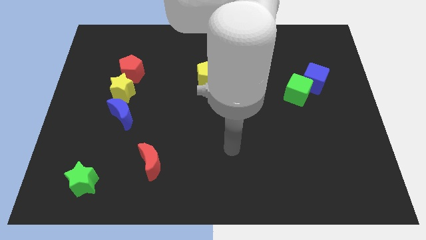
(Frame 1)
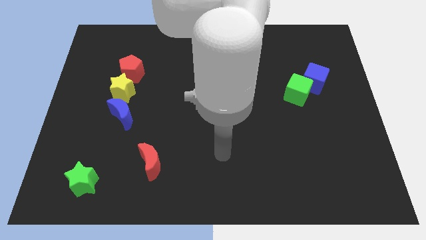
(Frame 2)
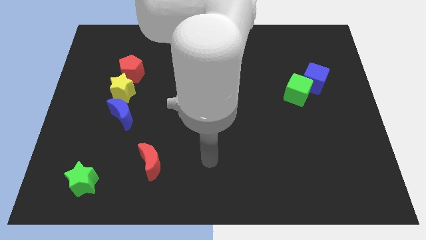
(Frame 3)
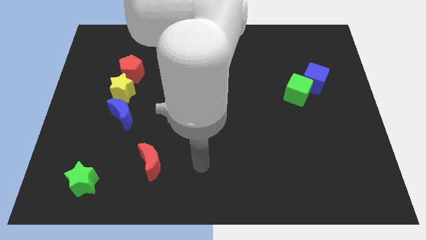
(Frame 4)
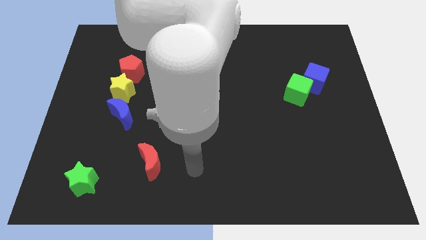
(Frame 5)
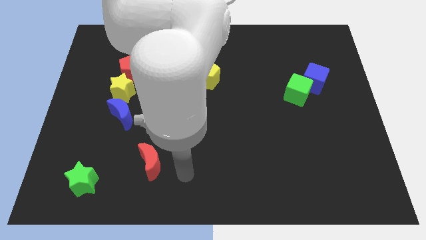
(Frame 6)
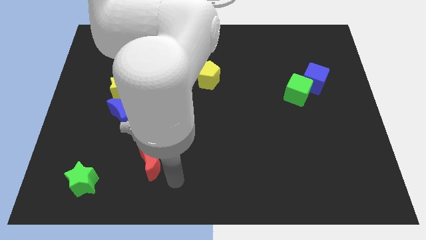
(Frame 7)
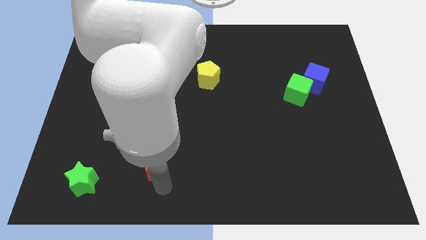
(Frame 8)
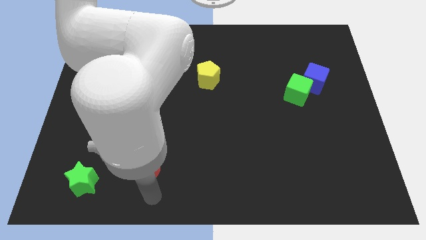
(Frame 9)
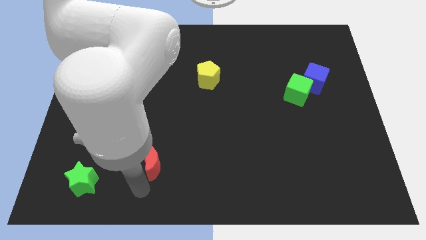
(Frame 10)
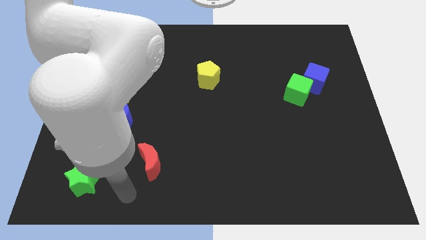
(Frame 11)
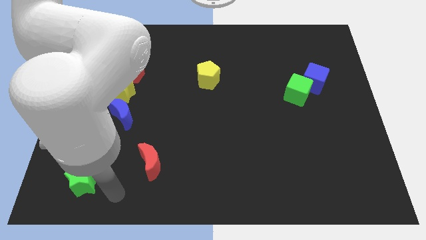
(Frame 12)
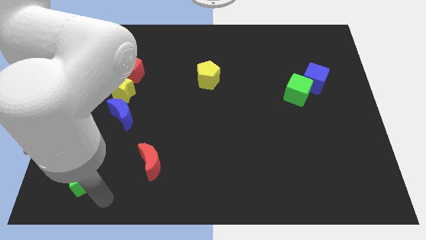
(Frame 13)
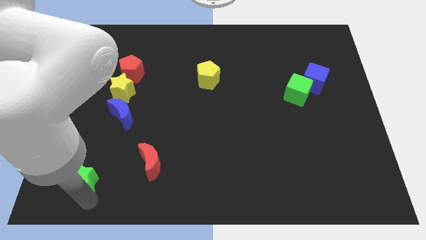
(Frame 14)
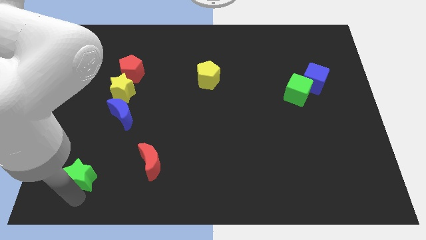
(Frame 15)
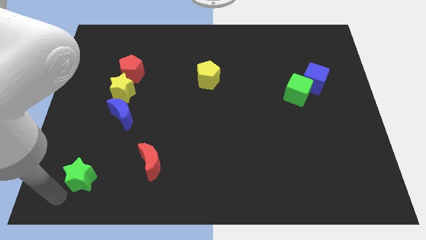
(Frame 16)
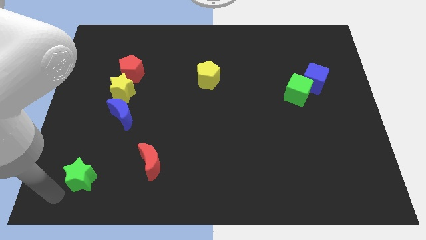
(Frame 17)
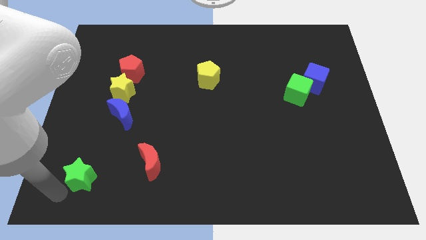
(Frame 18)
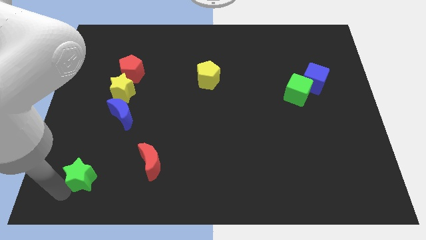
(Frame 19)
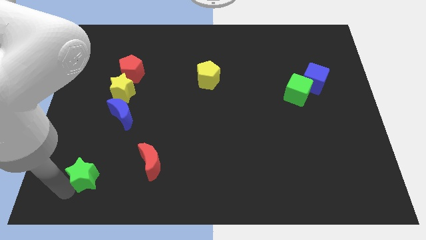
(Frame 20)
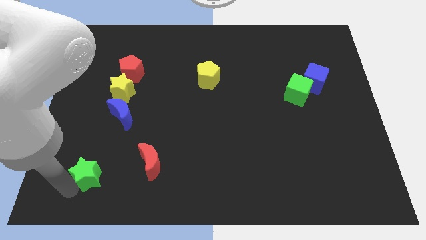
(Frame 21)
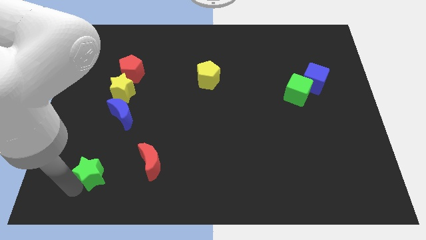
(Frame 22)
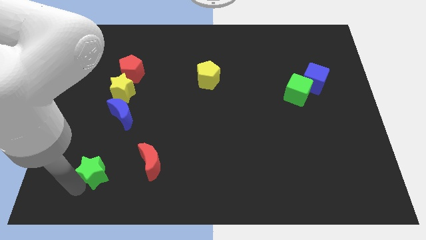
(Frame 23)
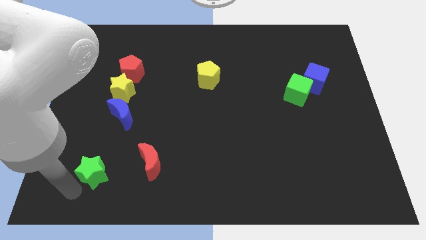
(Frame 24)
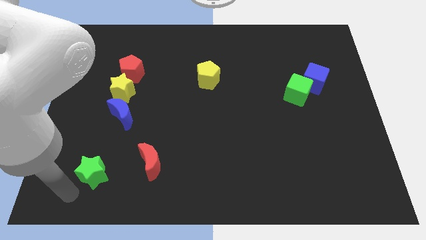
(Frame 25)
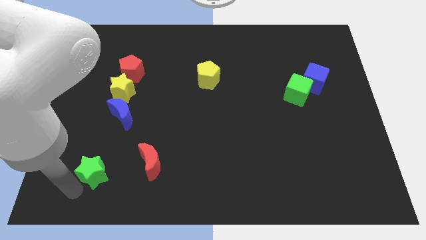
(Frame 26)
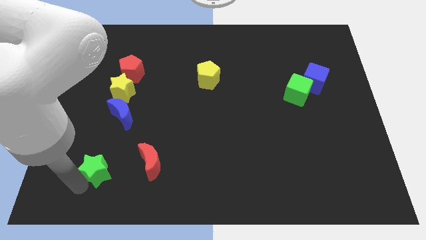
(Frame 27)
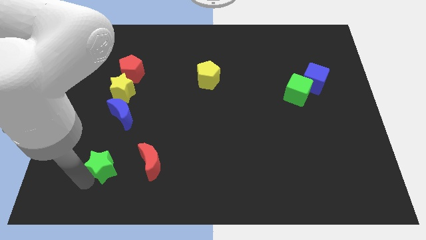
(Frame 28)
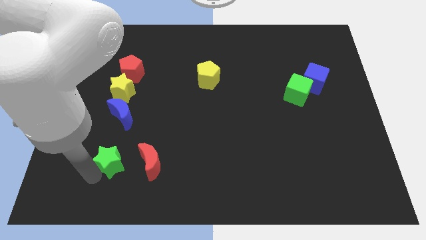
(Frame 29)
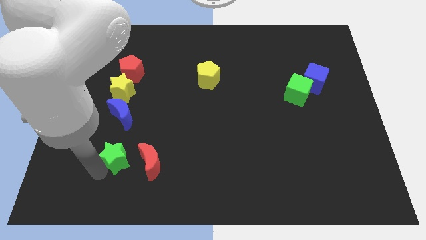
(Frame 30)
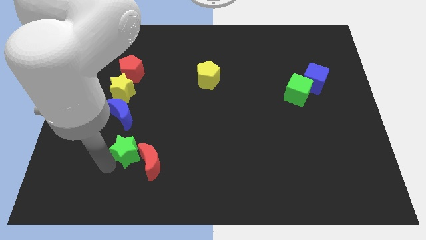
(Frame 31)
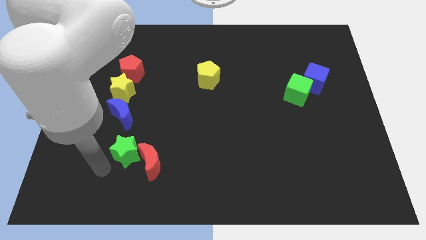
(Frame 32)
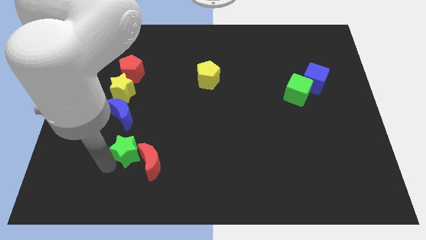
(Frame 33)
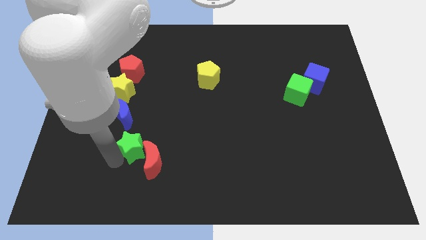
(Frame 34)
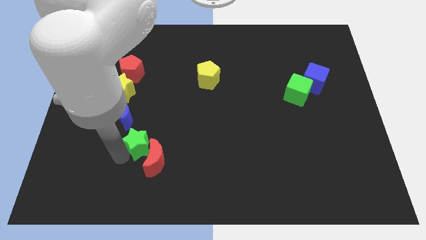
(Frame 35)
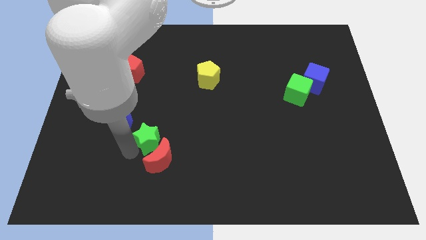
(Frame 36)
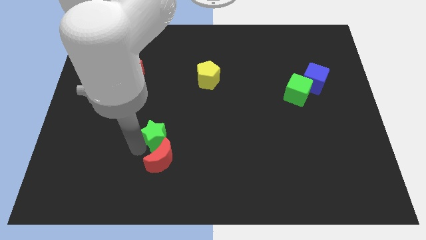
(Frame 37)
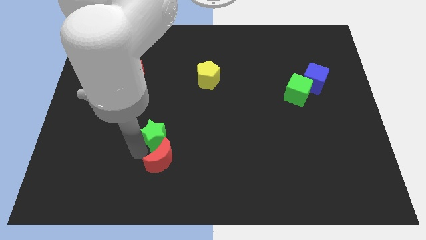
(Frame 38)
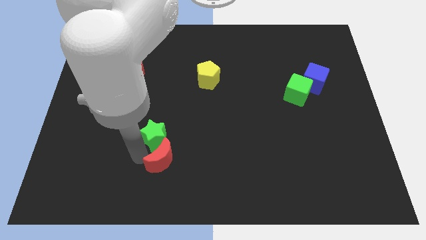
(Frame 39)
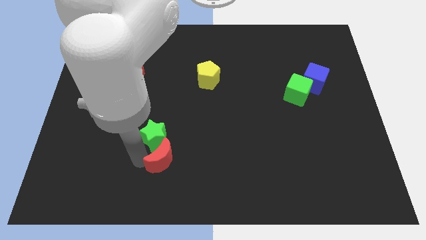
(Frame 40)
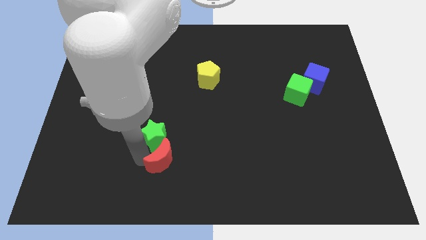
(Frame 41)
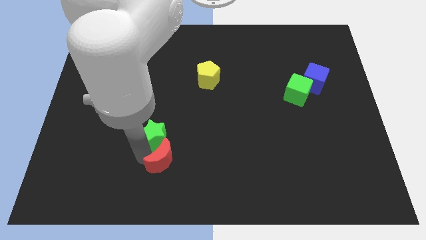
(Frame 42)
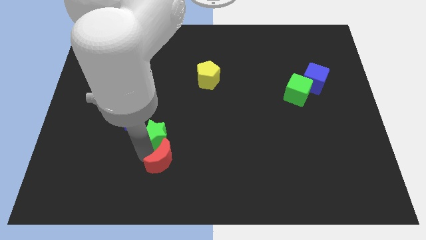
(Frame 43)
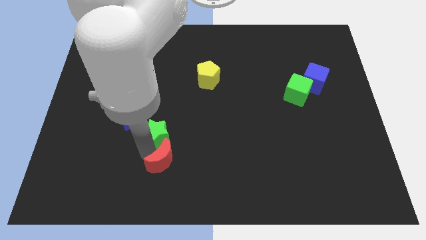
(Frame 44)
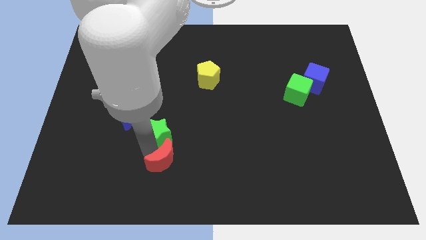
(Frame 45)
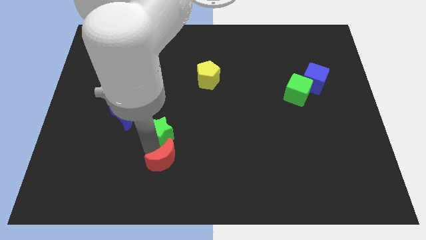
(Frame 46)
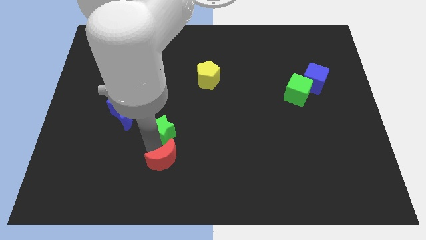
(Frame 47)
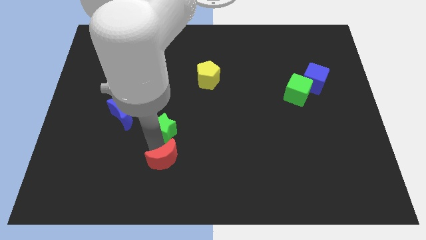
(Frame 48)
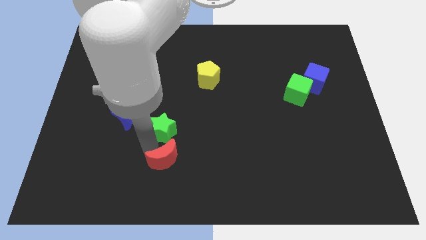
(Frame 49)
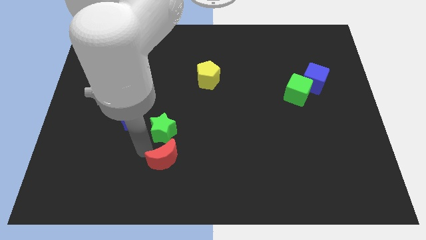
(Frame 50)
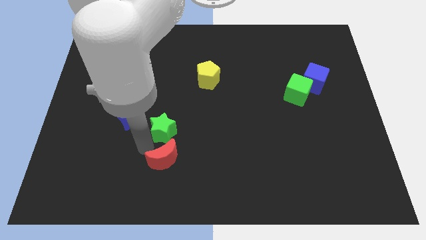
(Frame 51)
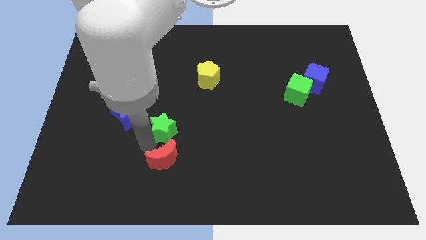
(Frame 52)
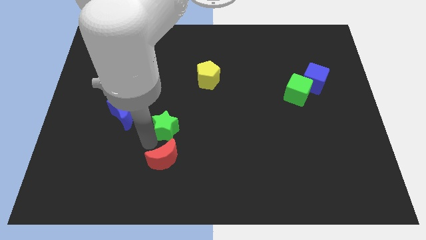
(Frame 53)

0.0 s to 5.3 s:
move the green star up and to the right

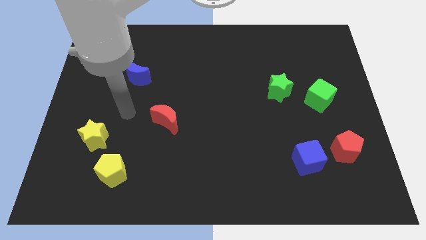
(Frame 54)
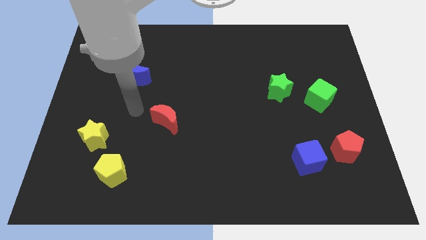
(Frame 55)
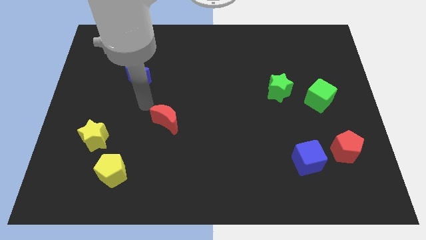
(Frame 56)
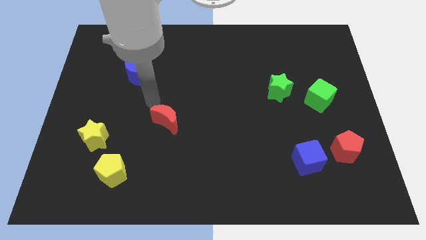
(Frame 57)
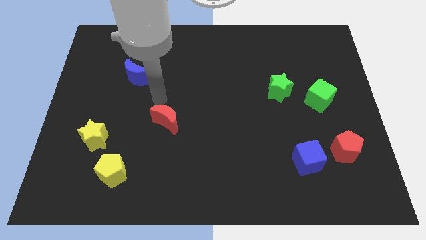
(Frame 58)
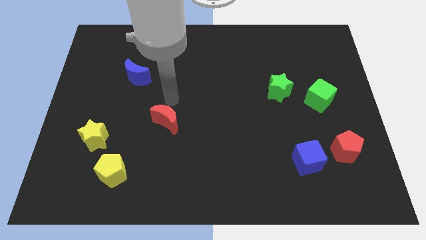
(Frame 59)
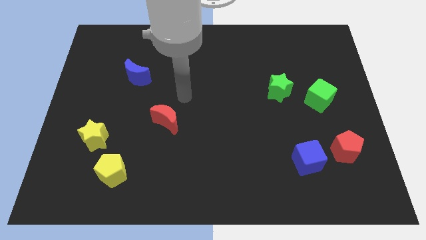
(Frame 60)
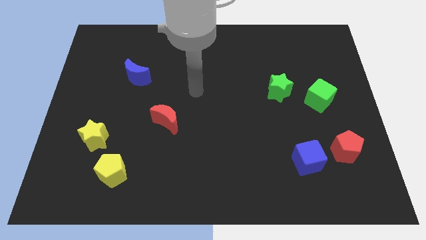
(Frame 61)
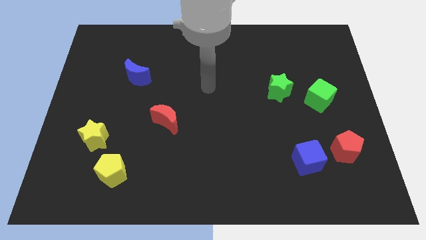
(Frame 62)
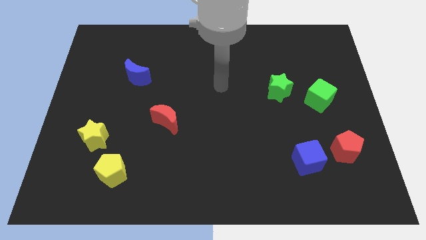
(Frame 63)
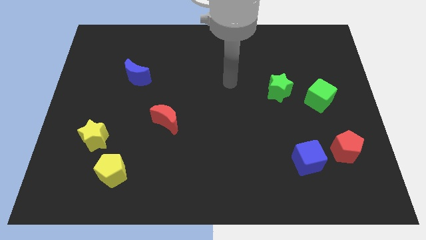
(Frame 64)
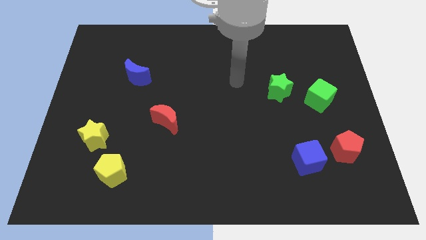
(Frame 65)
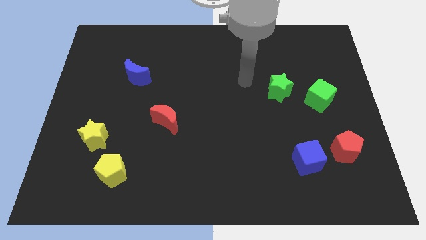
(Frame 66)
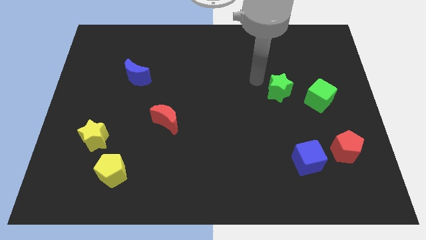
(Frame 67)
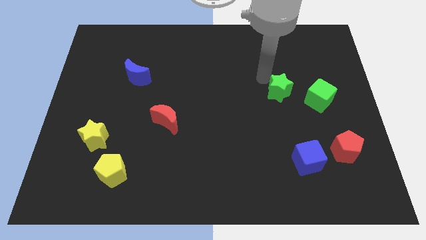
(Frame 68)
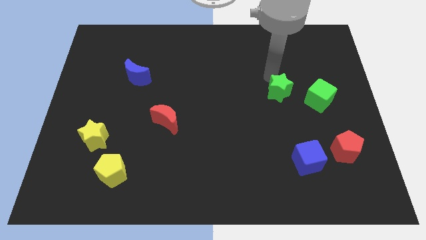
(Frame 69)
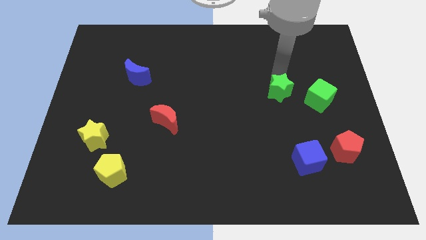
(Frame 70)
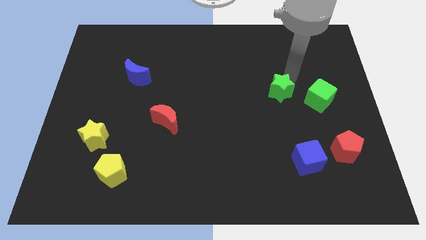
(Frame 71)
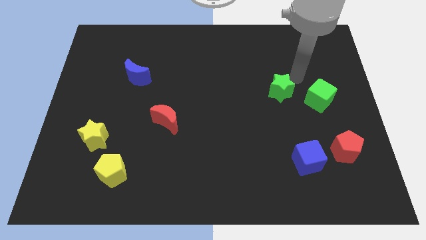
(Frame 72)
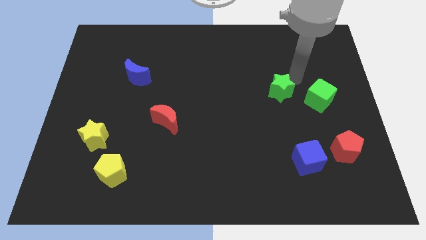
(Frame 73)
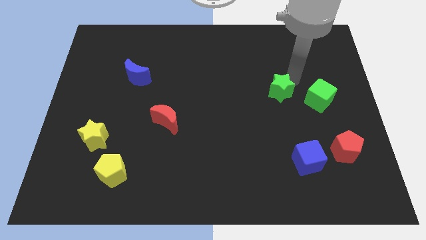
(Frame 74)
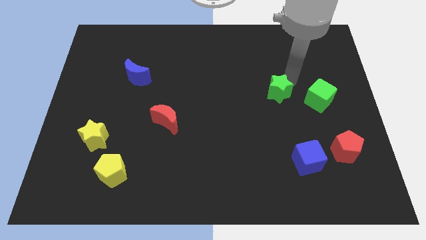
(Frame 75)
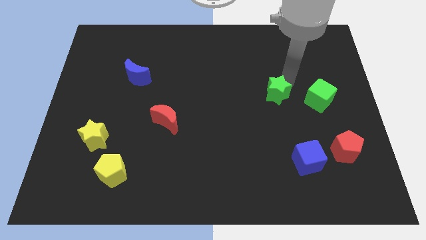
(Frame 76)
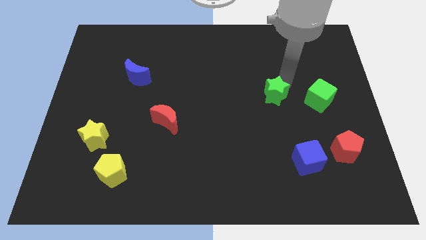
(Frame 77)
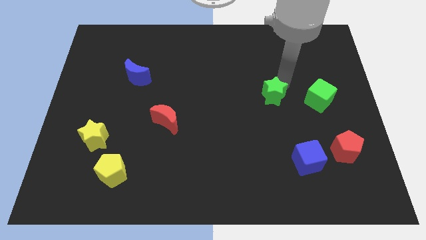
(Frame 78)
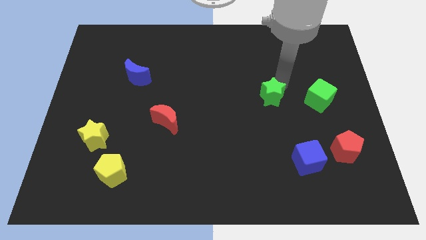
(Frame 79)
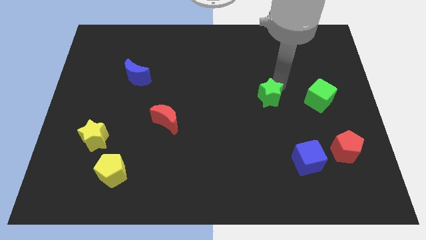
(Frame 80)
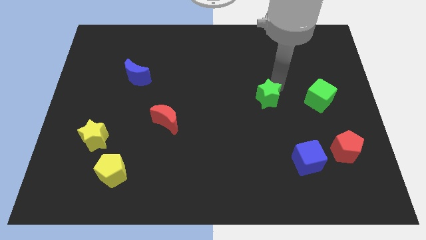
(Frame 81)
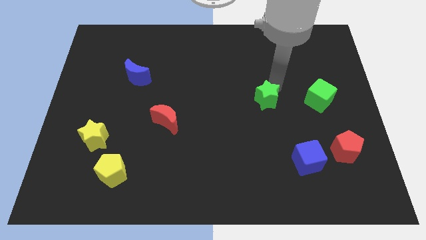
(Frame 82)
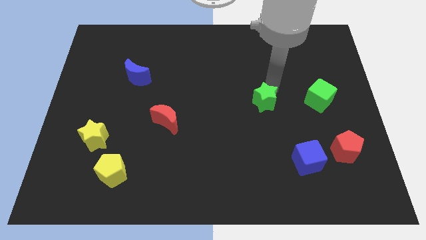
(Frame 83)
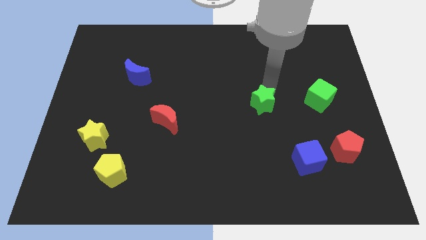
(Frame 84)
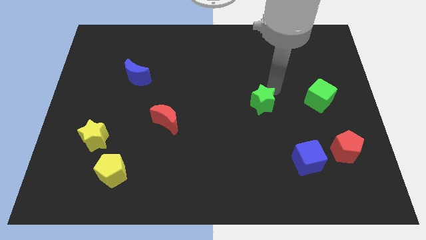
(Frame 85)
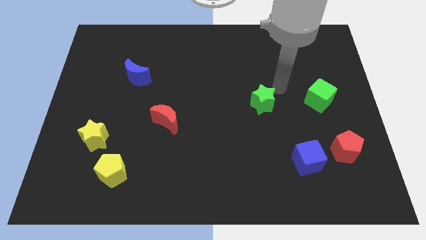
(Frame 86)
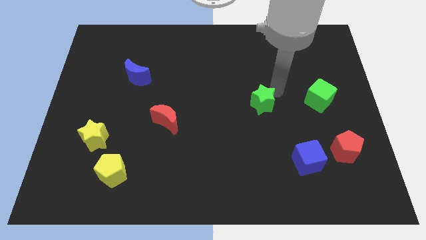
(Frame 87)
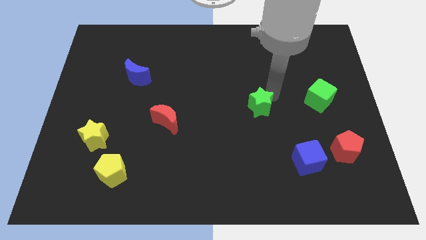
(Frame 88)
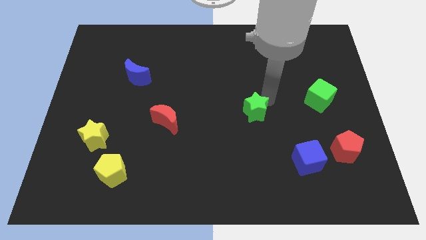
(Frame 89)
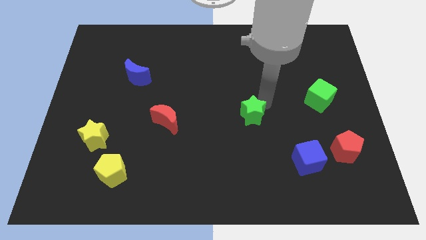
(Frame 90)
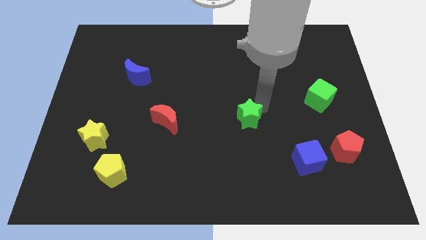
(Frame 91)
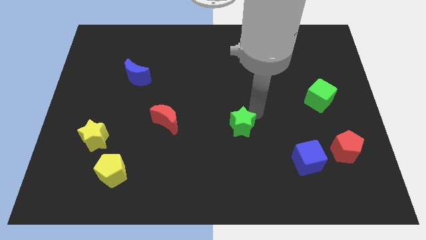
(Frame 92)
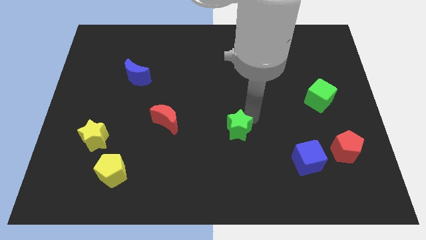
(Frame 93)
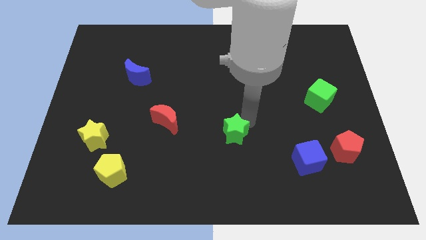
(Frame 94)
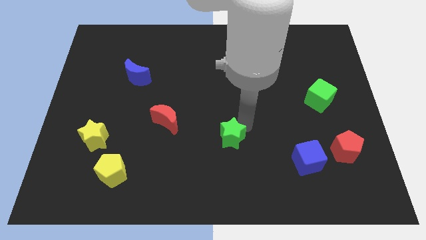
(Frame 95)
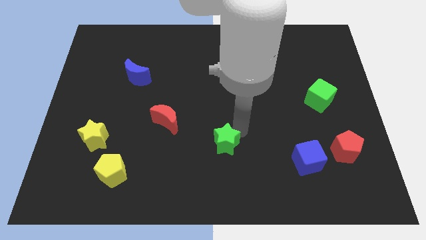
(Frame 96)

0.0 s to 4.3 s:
push the green star down and then to the left
